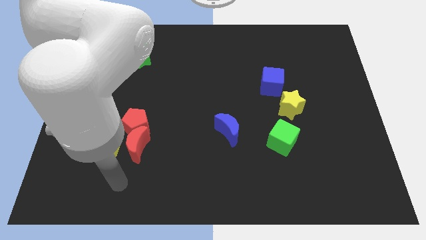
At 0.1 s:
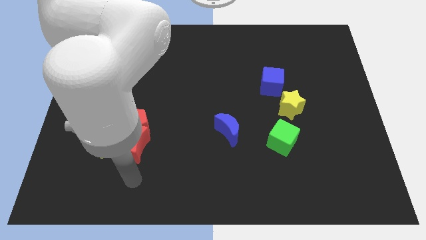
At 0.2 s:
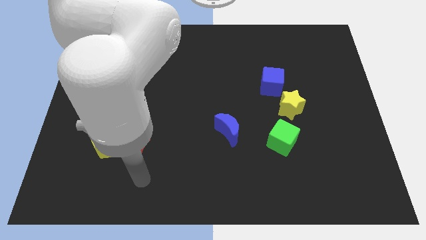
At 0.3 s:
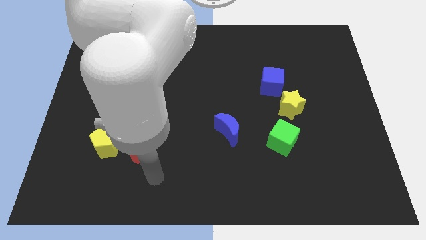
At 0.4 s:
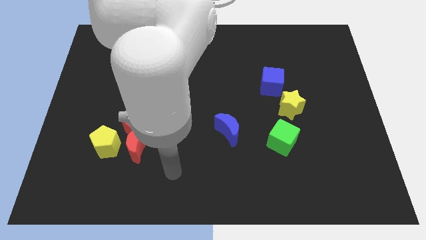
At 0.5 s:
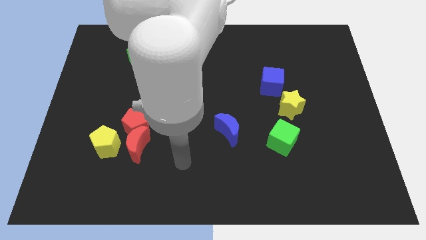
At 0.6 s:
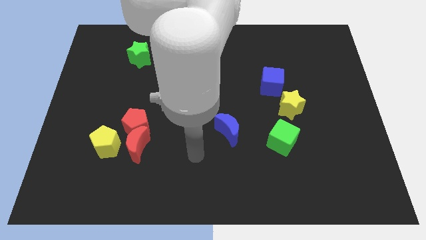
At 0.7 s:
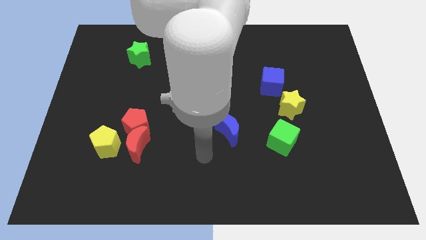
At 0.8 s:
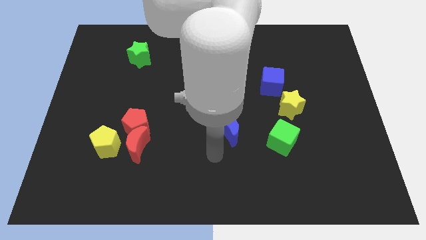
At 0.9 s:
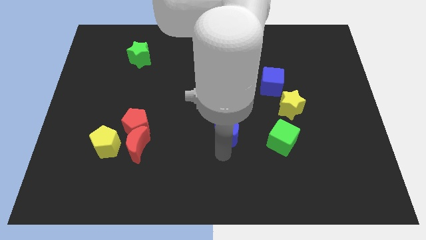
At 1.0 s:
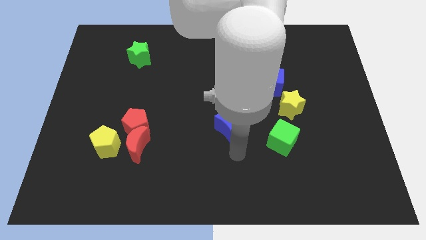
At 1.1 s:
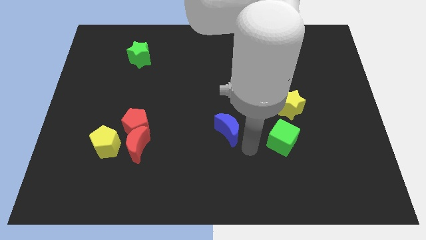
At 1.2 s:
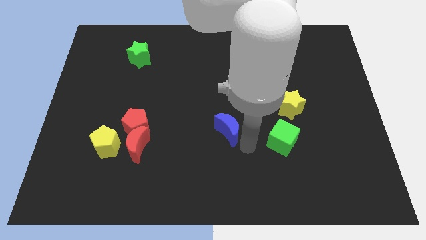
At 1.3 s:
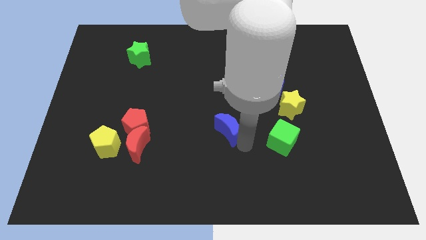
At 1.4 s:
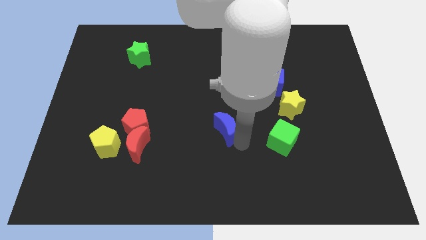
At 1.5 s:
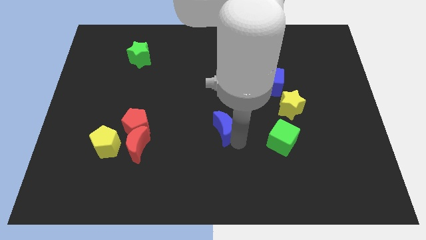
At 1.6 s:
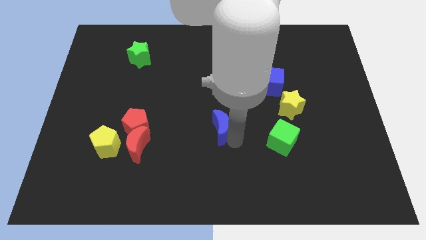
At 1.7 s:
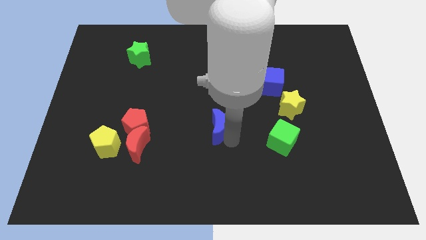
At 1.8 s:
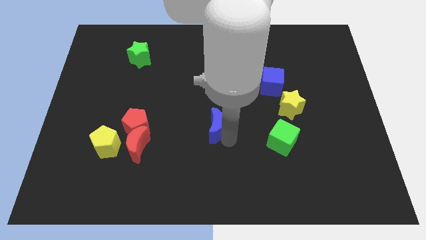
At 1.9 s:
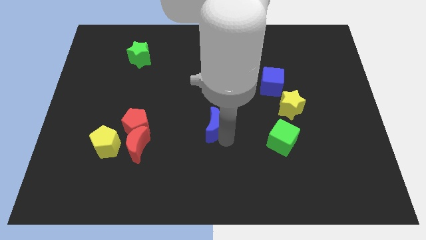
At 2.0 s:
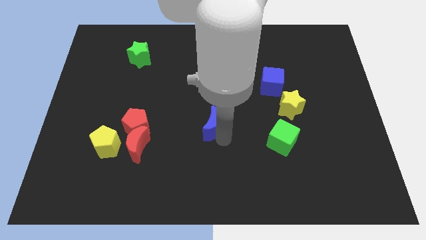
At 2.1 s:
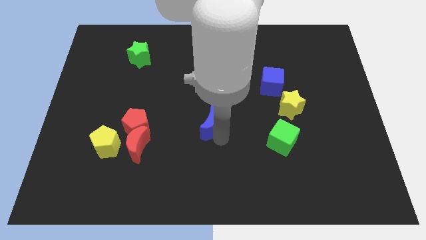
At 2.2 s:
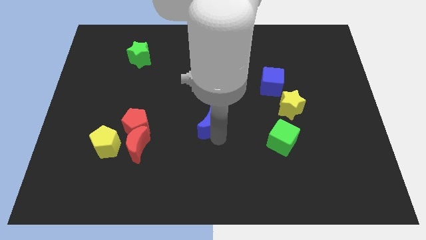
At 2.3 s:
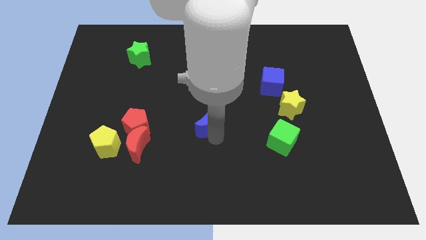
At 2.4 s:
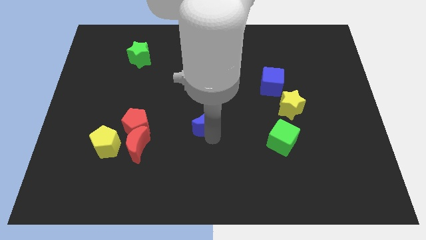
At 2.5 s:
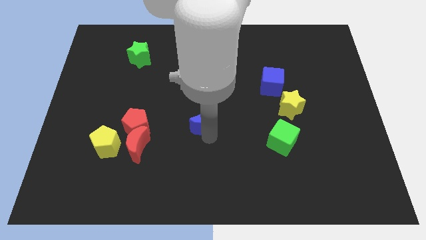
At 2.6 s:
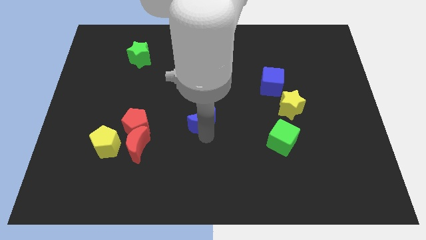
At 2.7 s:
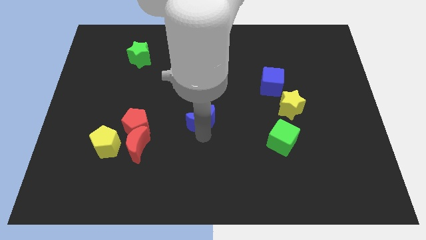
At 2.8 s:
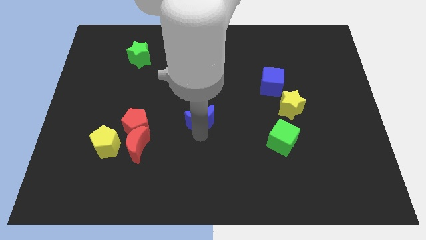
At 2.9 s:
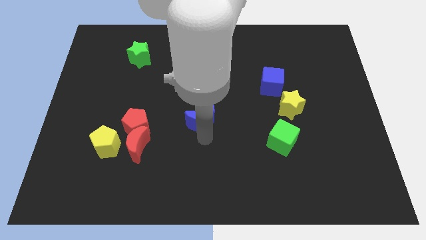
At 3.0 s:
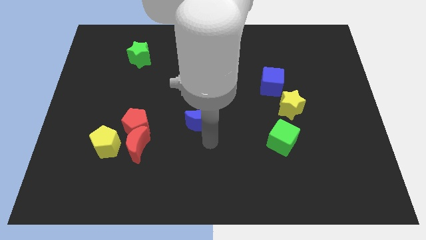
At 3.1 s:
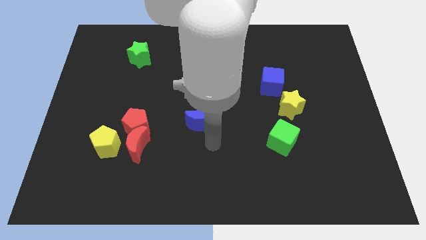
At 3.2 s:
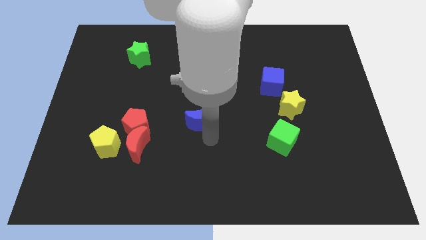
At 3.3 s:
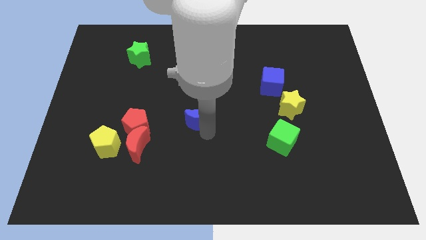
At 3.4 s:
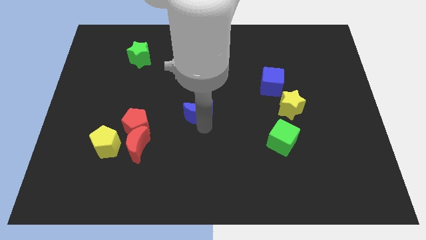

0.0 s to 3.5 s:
slide the blue moon a bit up and then to the left

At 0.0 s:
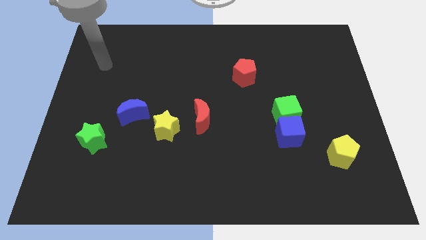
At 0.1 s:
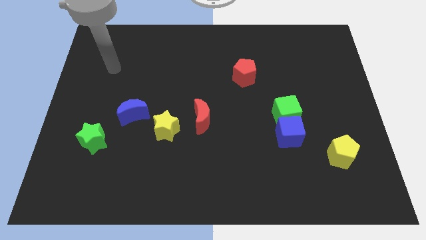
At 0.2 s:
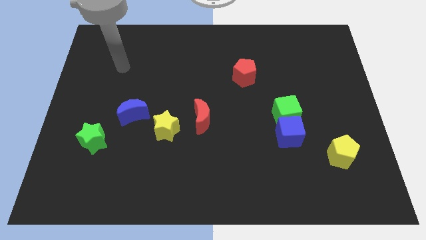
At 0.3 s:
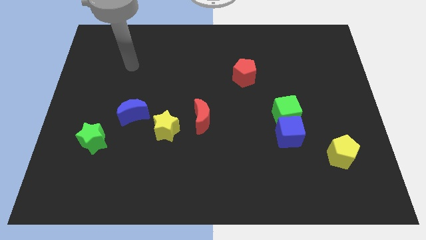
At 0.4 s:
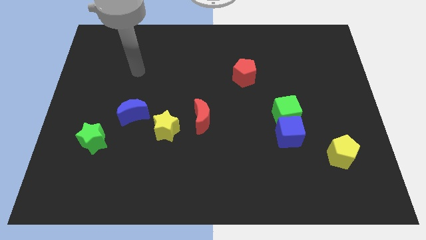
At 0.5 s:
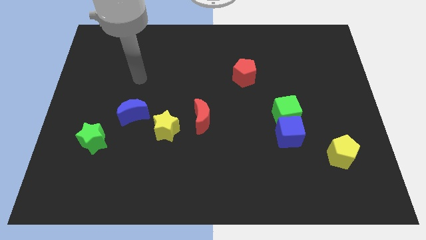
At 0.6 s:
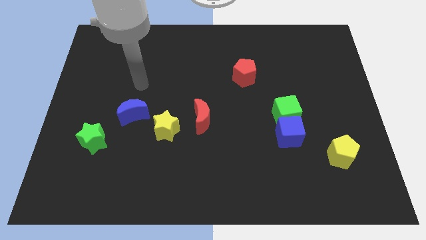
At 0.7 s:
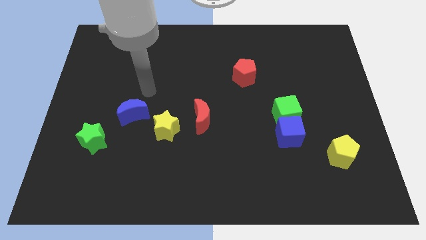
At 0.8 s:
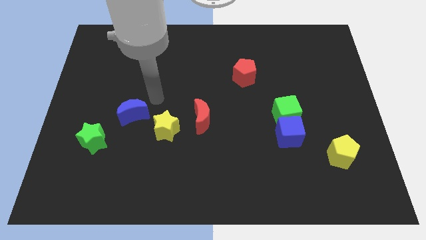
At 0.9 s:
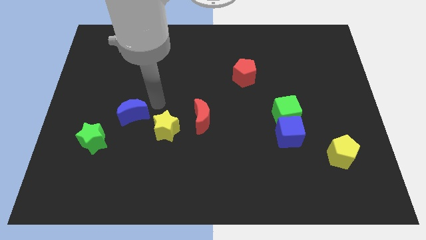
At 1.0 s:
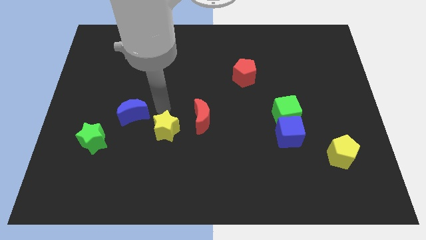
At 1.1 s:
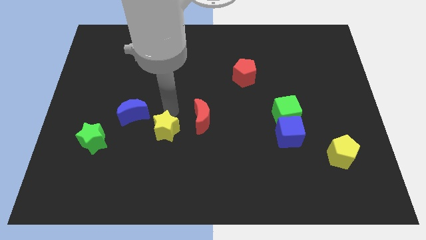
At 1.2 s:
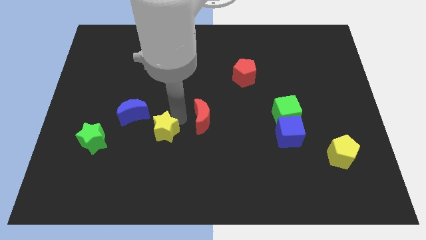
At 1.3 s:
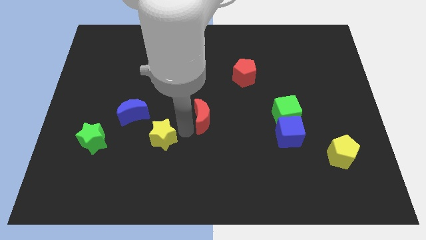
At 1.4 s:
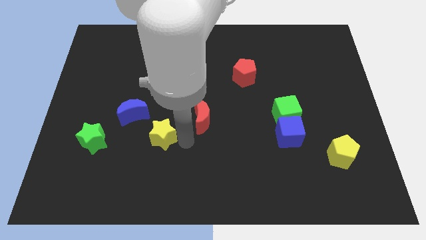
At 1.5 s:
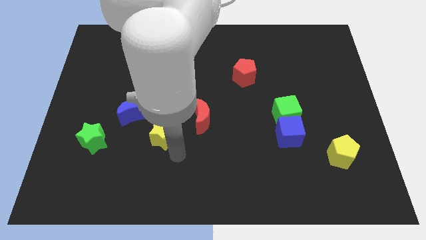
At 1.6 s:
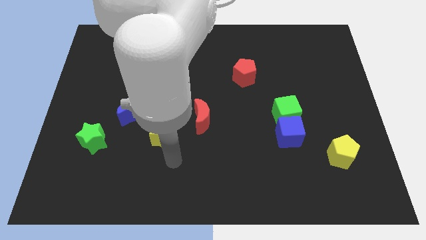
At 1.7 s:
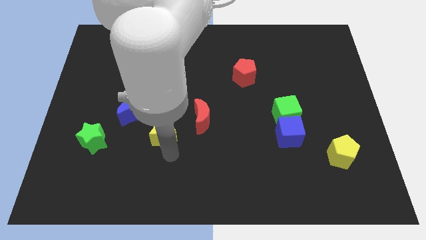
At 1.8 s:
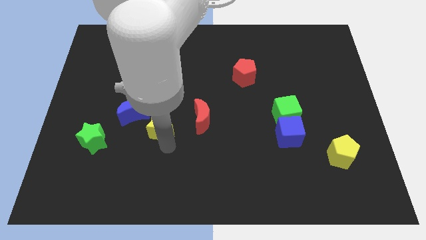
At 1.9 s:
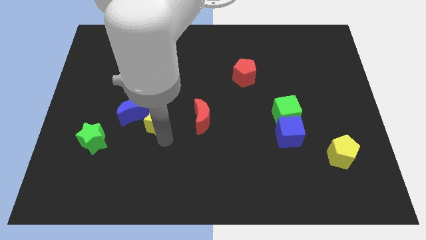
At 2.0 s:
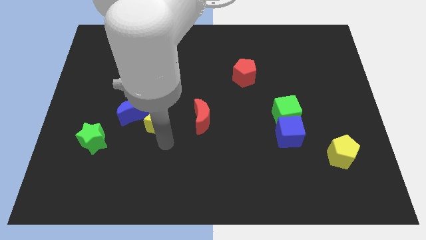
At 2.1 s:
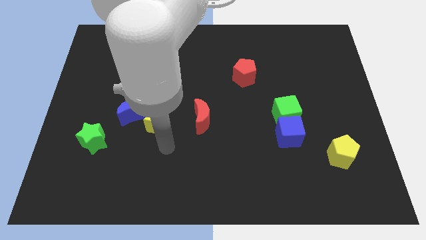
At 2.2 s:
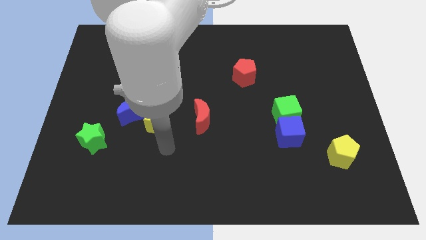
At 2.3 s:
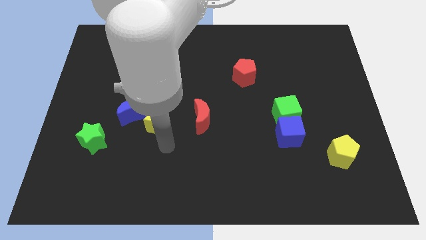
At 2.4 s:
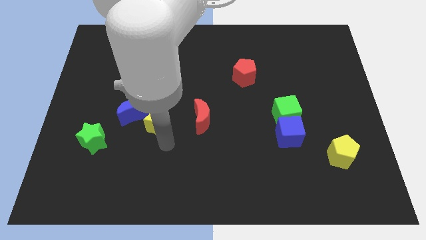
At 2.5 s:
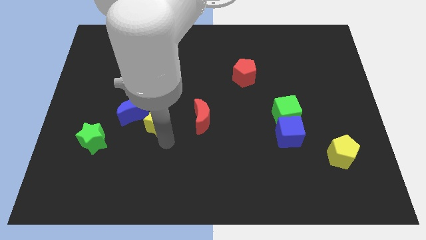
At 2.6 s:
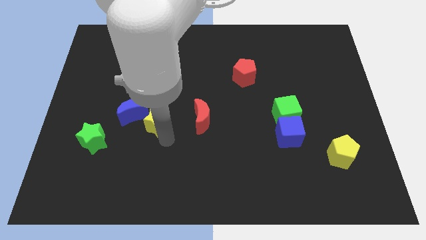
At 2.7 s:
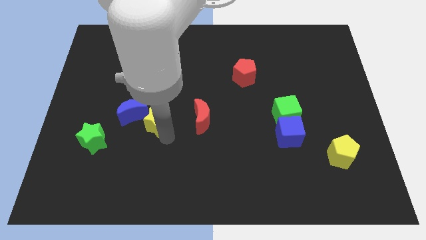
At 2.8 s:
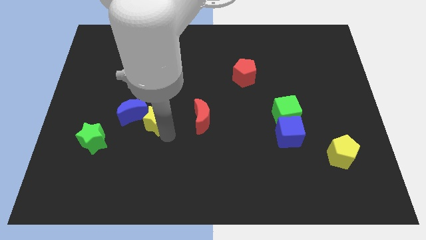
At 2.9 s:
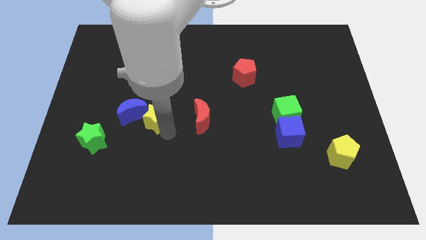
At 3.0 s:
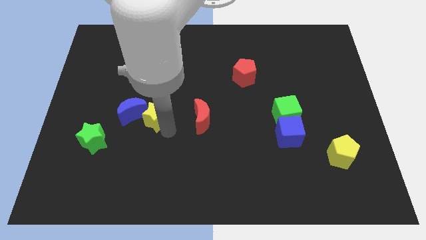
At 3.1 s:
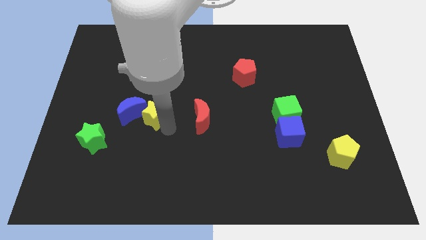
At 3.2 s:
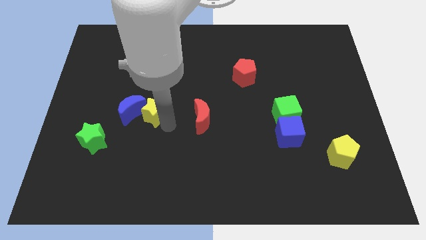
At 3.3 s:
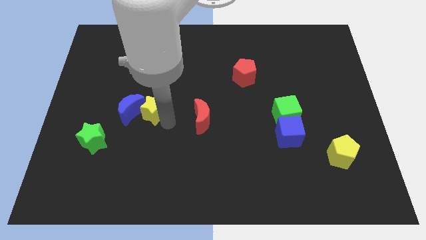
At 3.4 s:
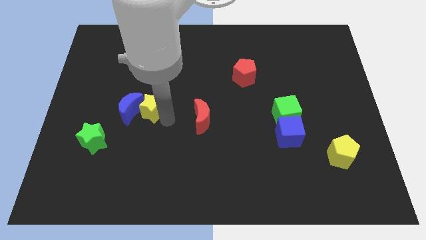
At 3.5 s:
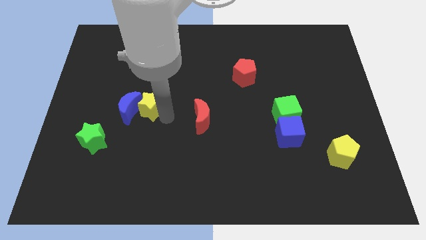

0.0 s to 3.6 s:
slightly move the yellow star up and to the left diagonally

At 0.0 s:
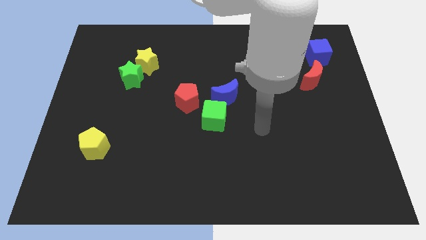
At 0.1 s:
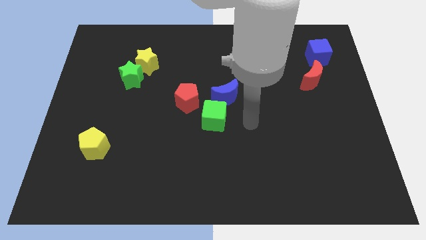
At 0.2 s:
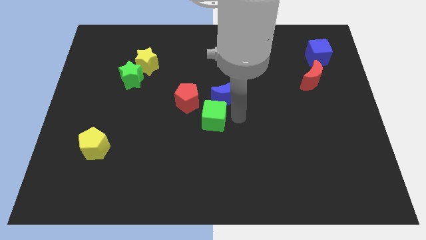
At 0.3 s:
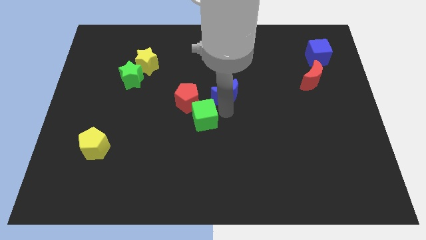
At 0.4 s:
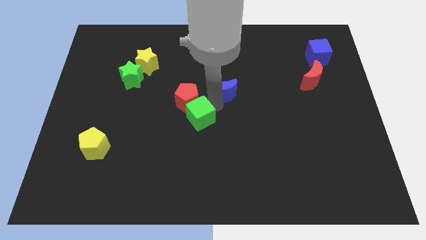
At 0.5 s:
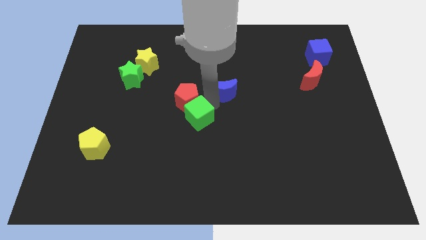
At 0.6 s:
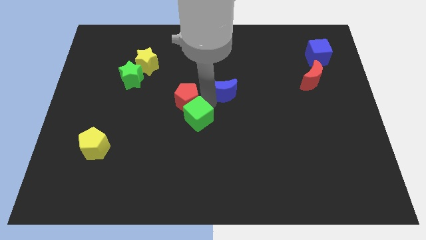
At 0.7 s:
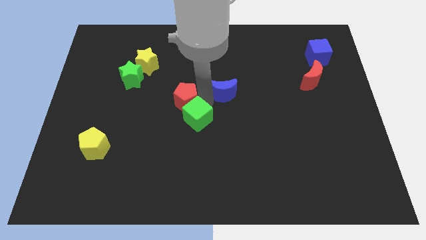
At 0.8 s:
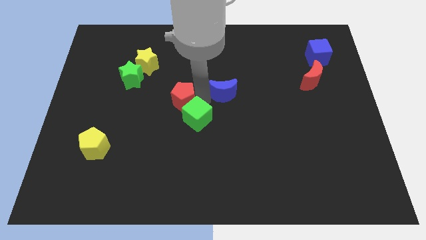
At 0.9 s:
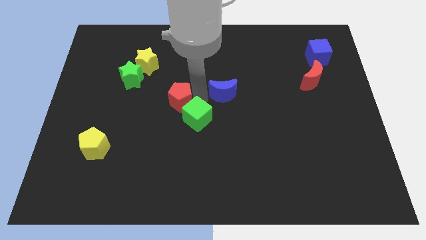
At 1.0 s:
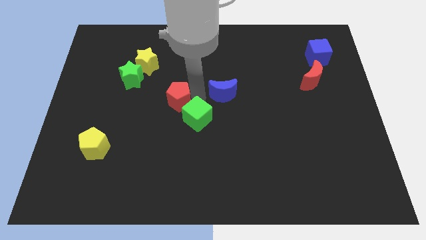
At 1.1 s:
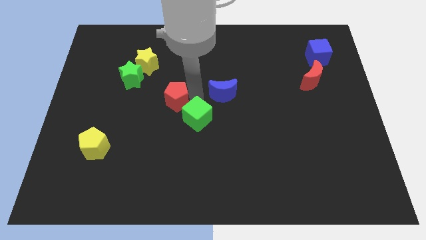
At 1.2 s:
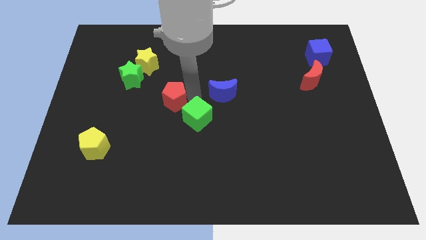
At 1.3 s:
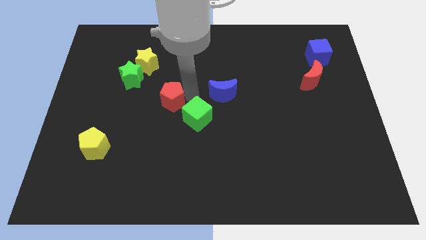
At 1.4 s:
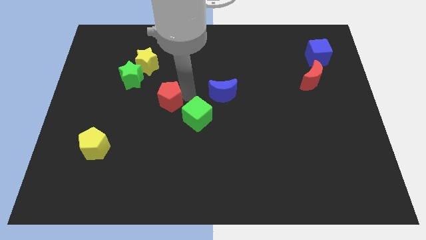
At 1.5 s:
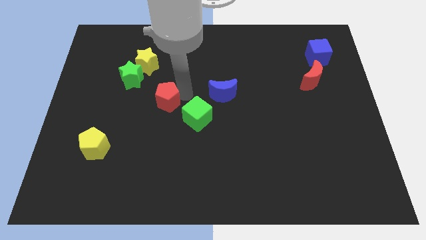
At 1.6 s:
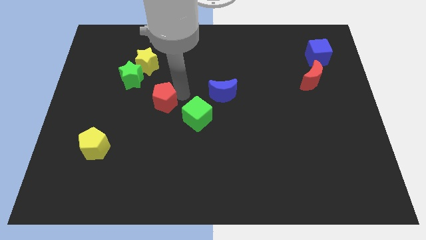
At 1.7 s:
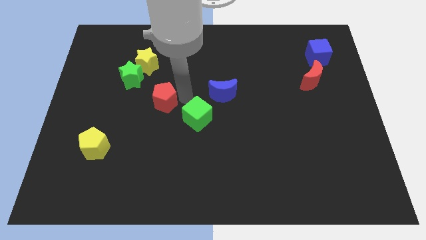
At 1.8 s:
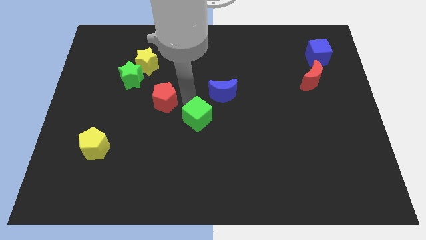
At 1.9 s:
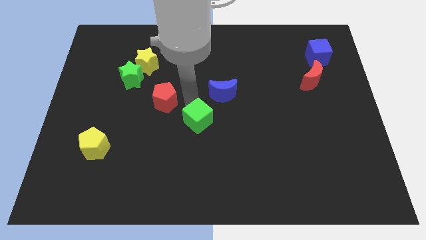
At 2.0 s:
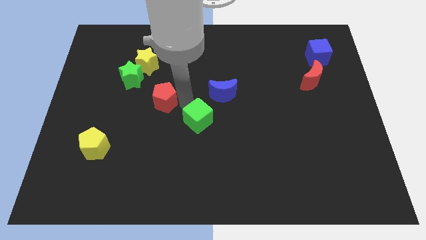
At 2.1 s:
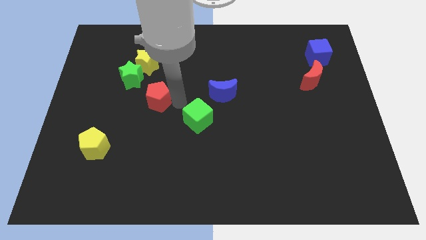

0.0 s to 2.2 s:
move the red pentagon left a little
